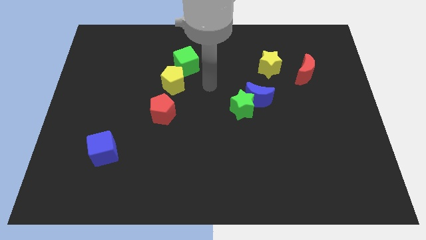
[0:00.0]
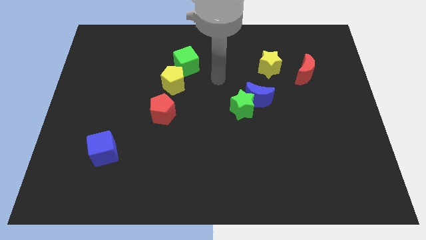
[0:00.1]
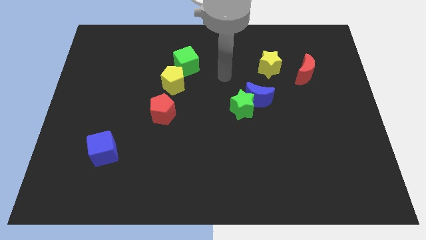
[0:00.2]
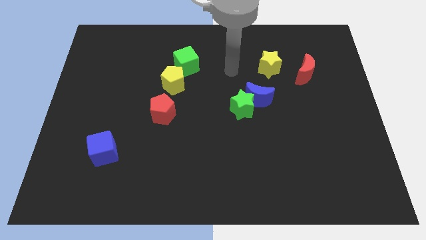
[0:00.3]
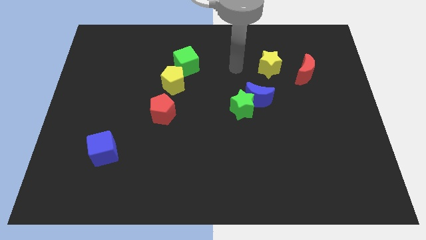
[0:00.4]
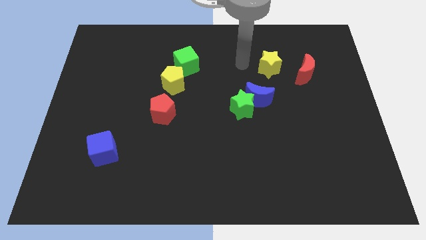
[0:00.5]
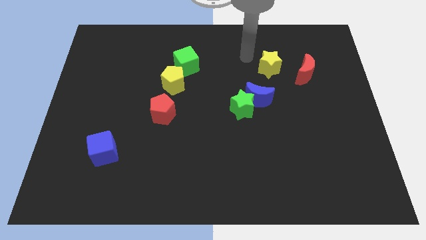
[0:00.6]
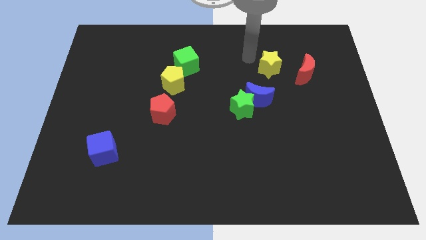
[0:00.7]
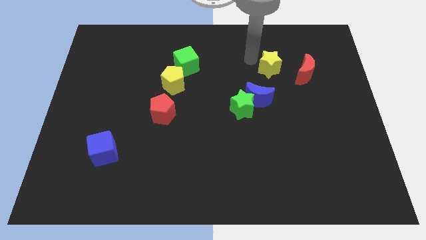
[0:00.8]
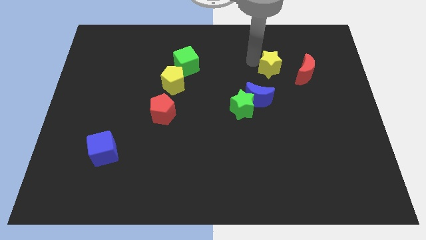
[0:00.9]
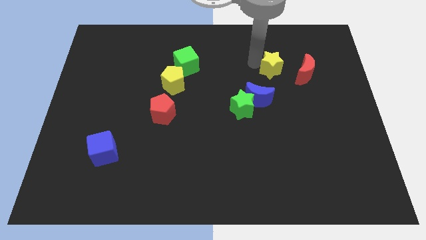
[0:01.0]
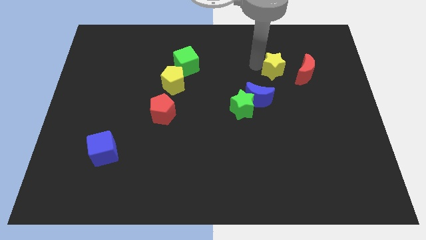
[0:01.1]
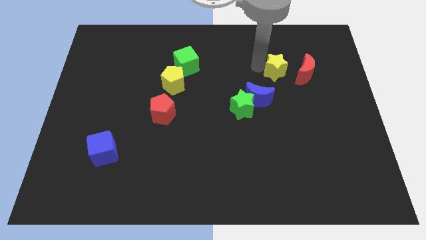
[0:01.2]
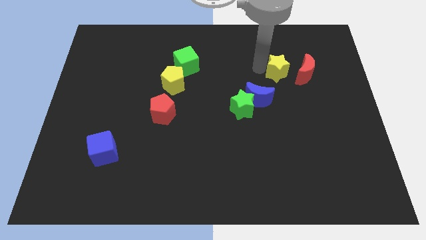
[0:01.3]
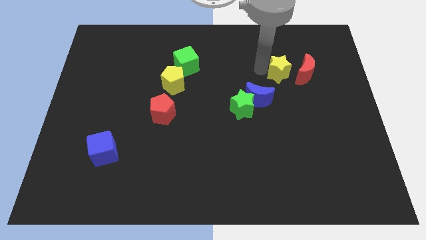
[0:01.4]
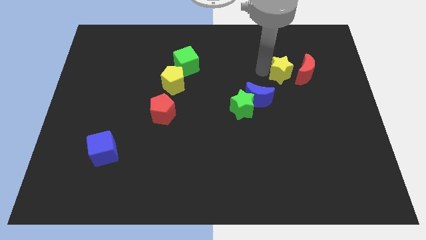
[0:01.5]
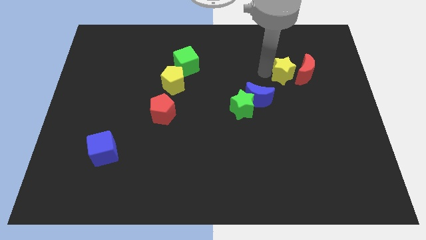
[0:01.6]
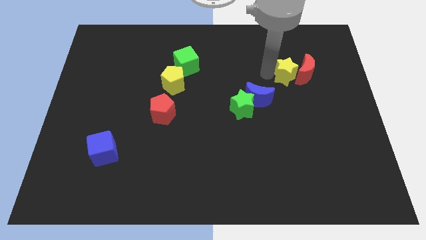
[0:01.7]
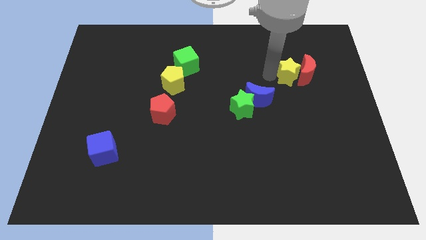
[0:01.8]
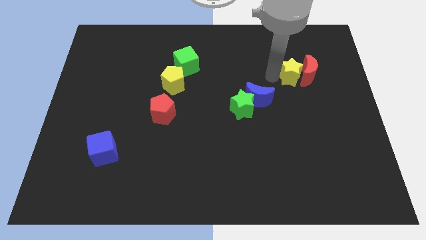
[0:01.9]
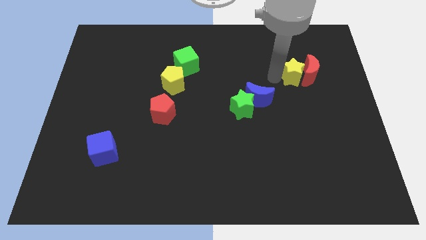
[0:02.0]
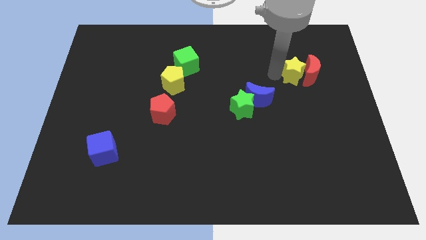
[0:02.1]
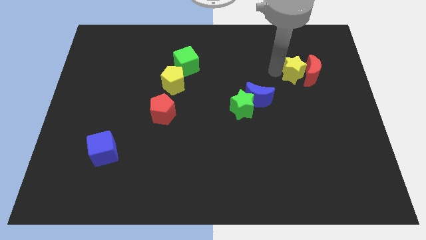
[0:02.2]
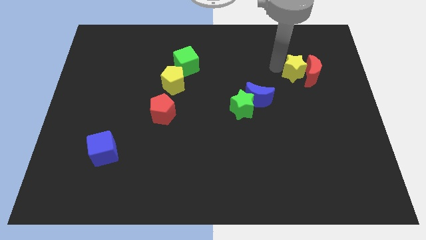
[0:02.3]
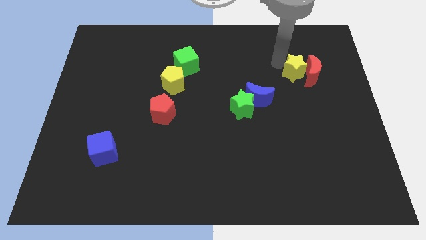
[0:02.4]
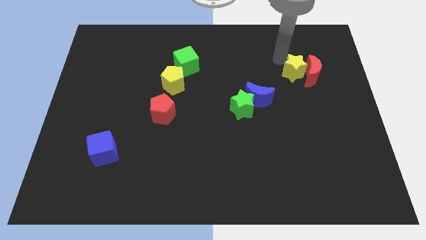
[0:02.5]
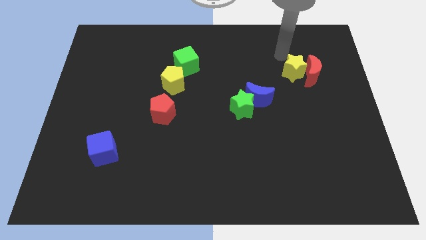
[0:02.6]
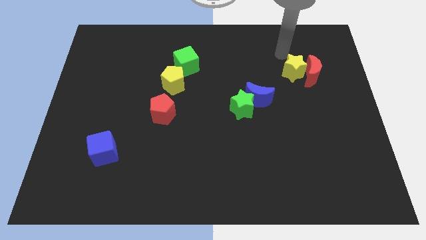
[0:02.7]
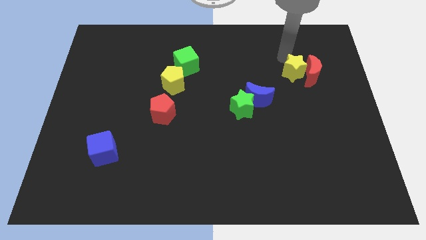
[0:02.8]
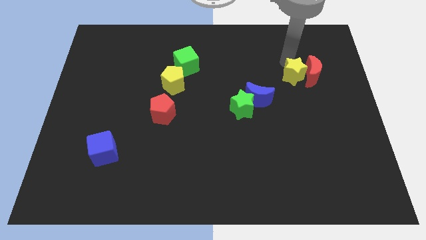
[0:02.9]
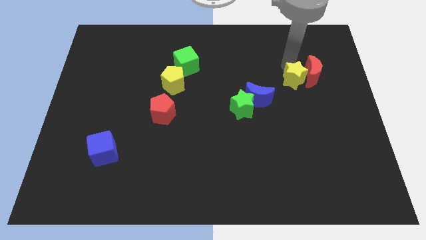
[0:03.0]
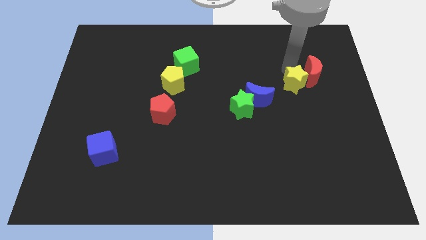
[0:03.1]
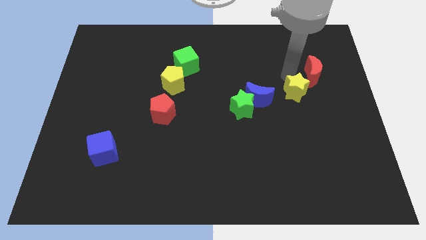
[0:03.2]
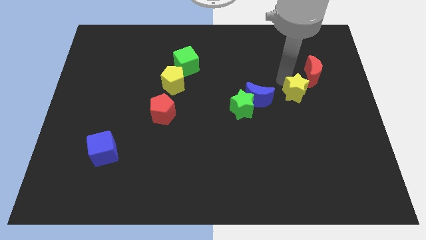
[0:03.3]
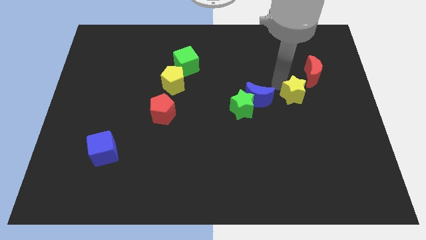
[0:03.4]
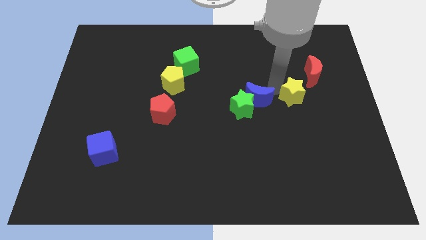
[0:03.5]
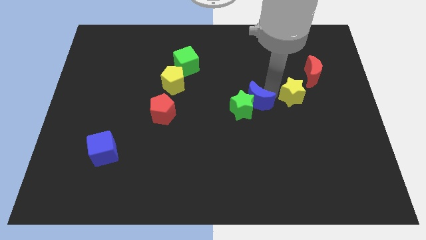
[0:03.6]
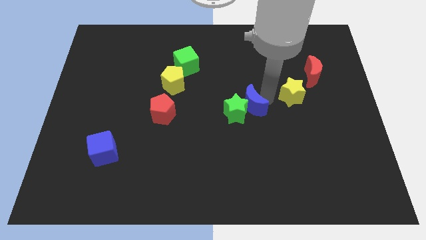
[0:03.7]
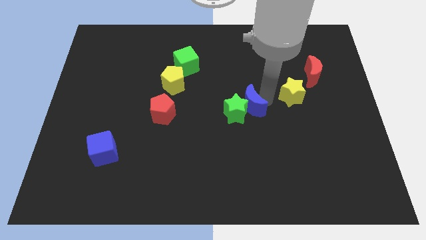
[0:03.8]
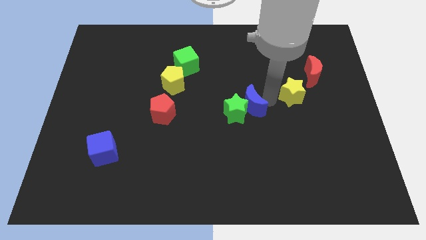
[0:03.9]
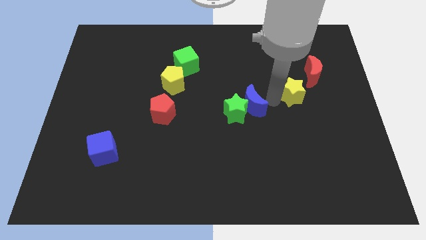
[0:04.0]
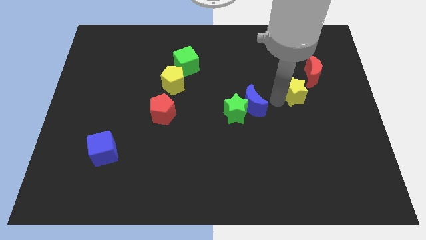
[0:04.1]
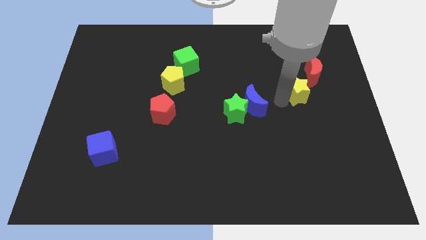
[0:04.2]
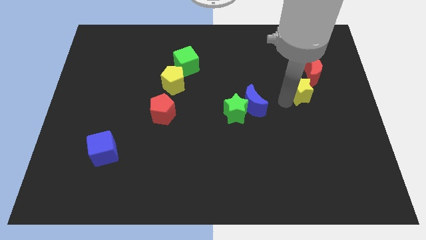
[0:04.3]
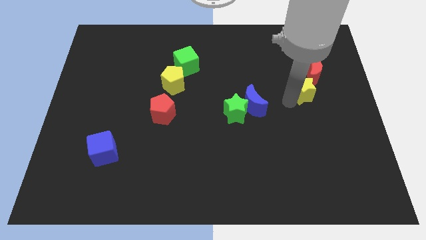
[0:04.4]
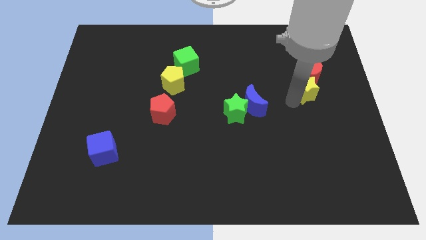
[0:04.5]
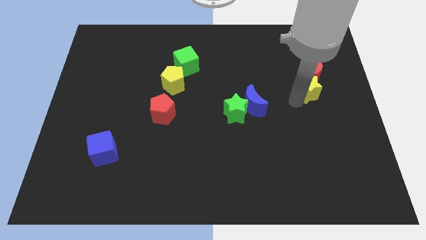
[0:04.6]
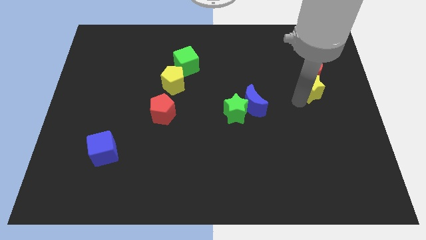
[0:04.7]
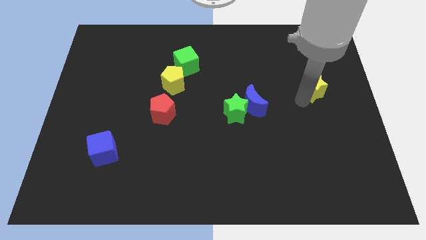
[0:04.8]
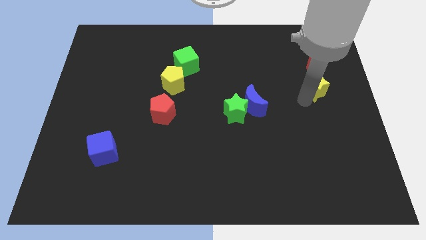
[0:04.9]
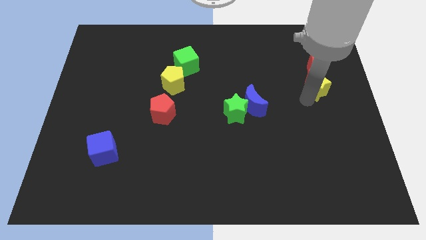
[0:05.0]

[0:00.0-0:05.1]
push the yellow star to the right side of the board

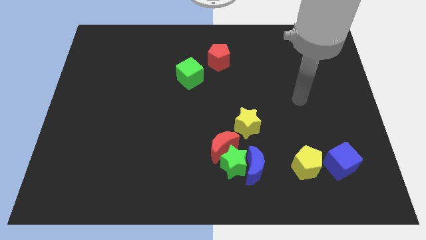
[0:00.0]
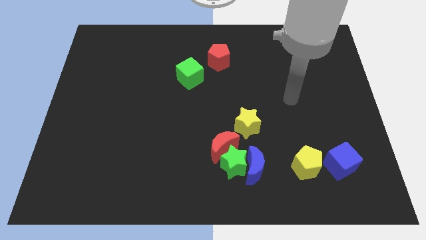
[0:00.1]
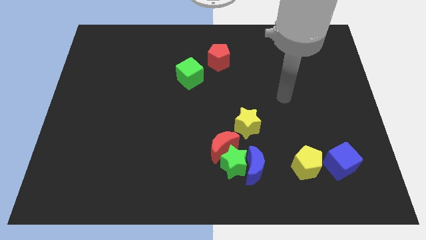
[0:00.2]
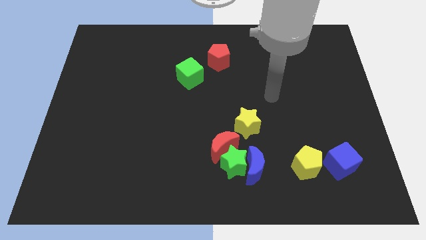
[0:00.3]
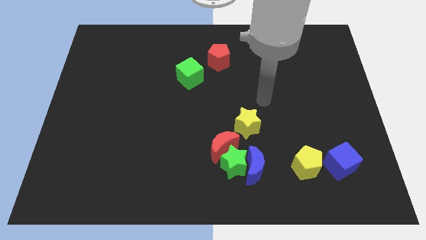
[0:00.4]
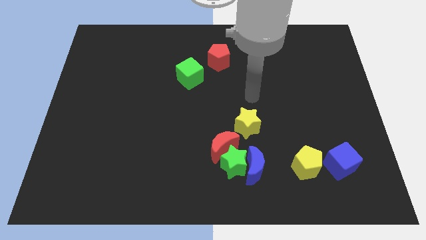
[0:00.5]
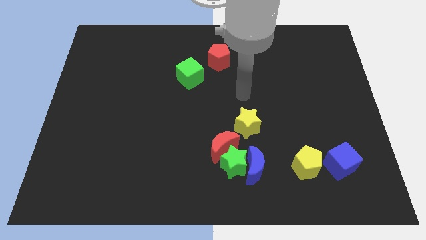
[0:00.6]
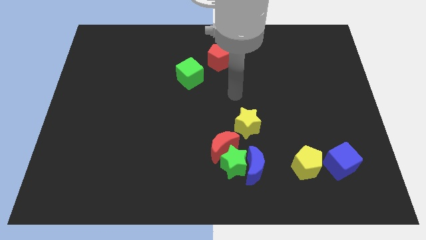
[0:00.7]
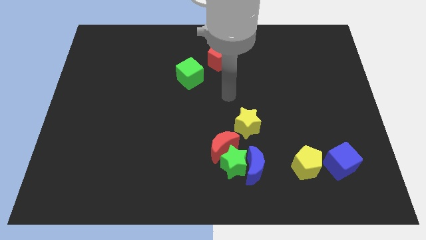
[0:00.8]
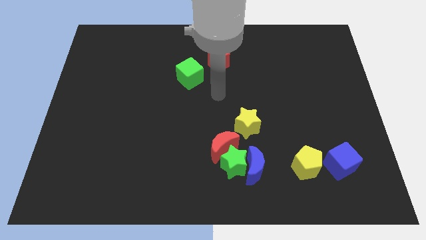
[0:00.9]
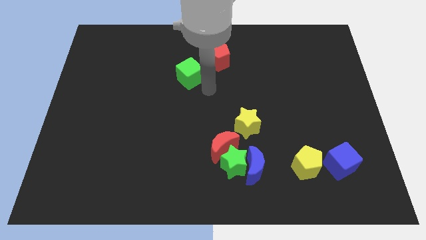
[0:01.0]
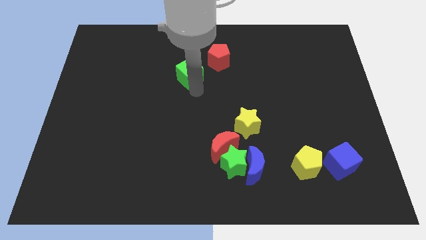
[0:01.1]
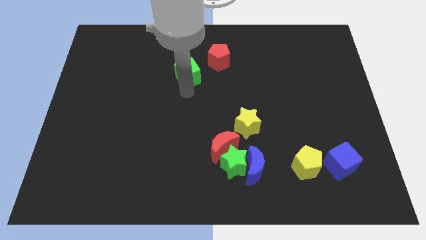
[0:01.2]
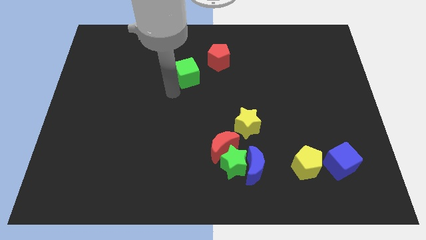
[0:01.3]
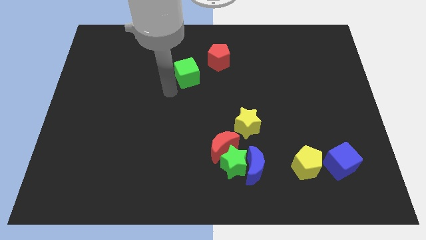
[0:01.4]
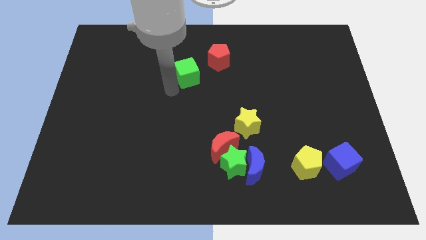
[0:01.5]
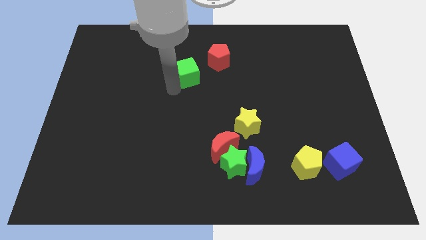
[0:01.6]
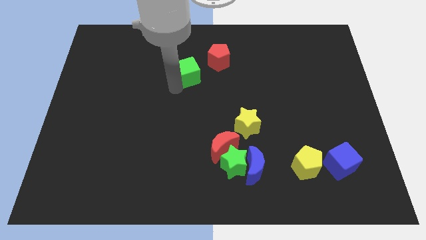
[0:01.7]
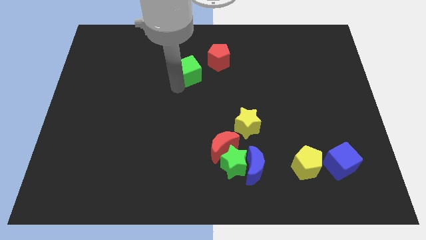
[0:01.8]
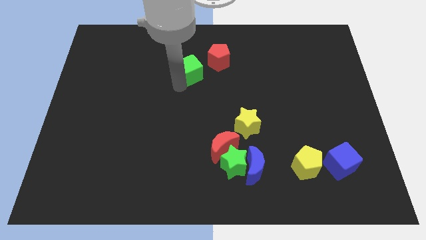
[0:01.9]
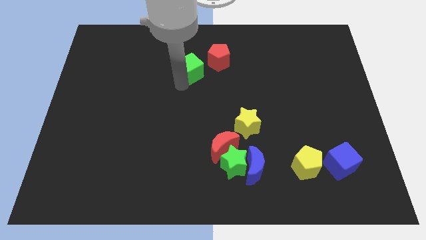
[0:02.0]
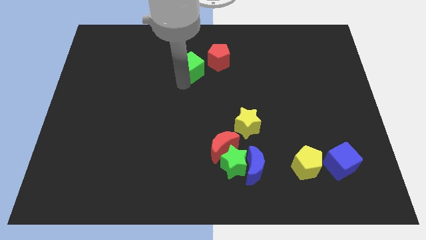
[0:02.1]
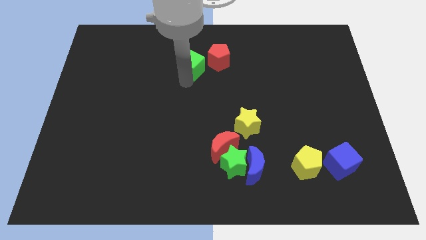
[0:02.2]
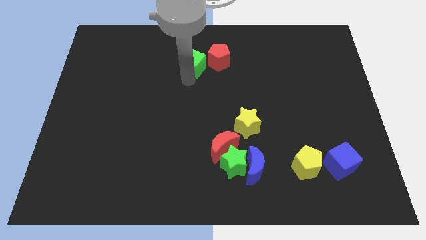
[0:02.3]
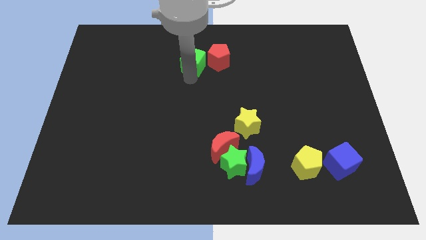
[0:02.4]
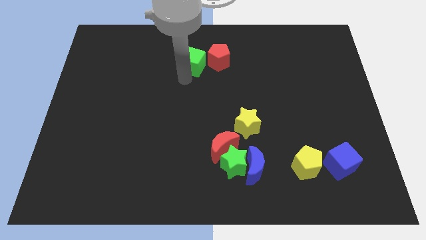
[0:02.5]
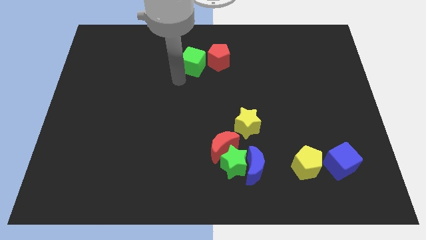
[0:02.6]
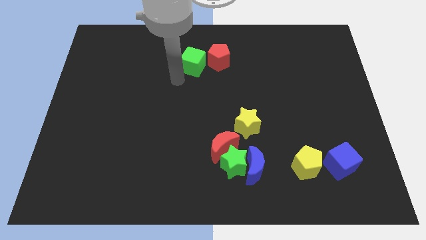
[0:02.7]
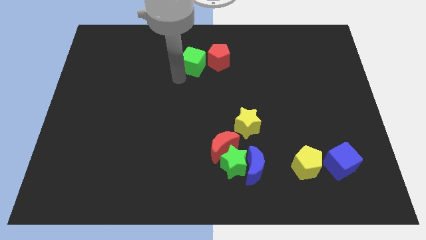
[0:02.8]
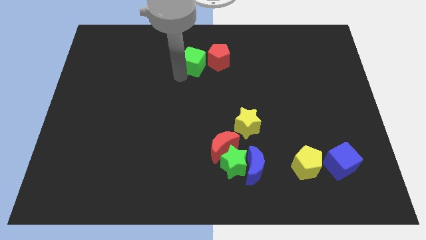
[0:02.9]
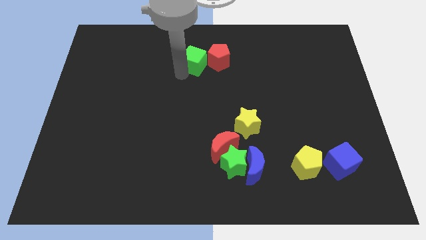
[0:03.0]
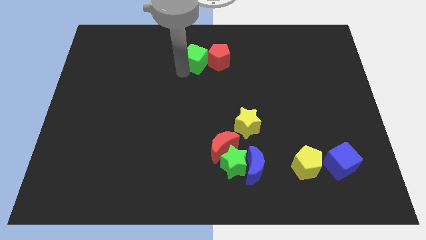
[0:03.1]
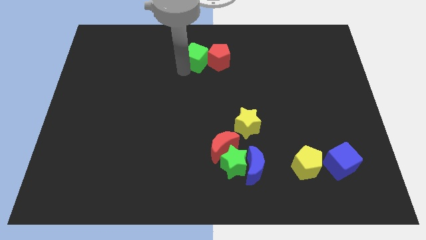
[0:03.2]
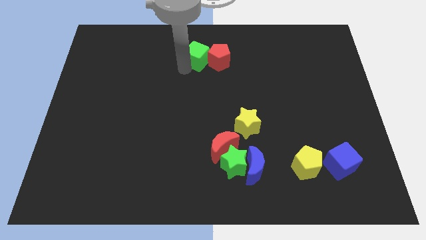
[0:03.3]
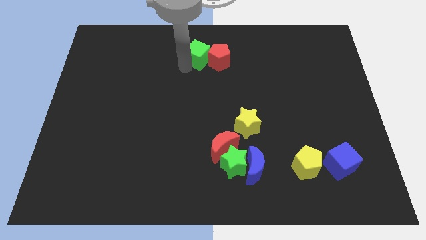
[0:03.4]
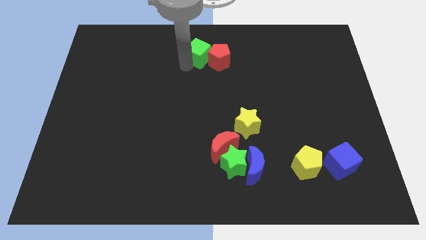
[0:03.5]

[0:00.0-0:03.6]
push the green cube to the towards your base
